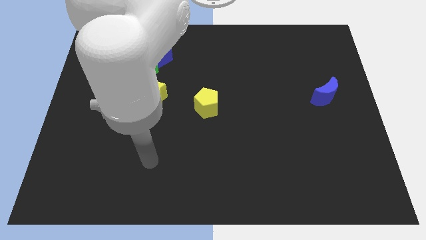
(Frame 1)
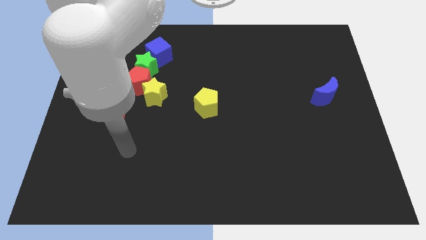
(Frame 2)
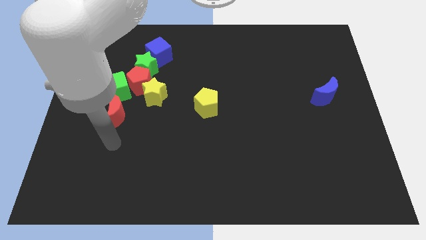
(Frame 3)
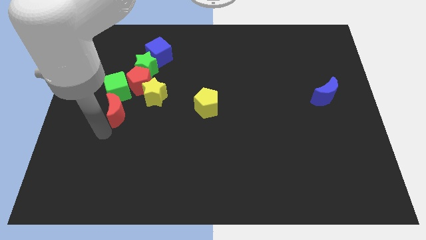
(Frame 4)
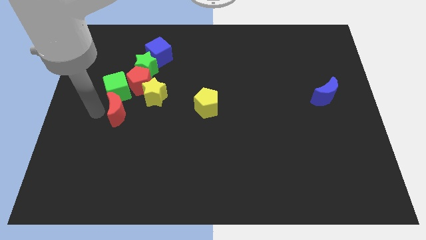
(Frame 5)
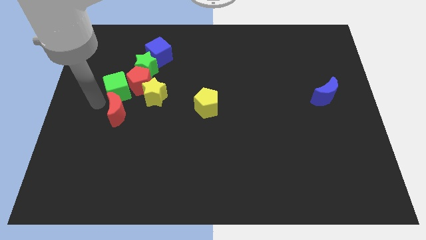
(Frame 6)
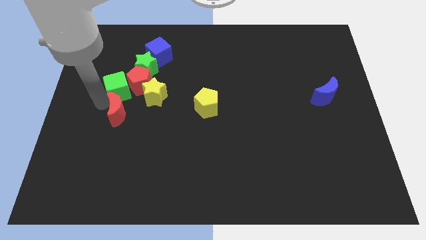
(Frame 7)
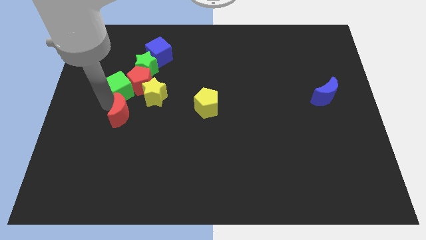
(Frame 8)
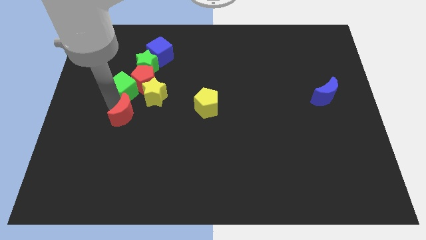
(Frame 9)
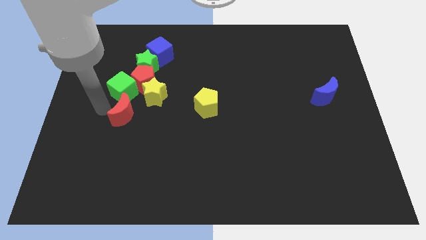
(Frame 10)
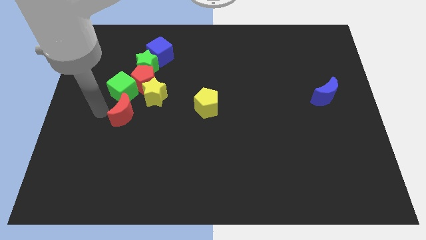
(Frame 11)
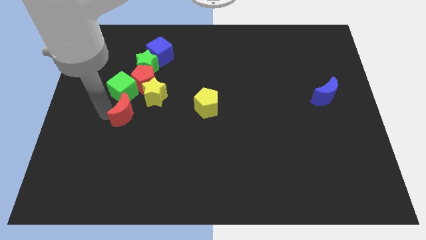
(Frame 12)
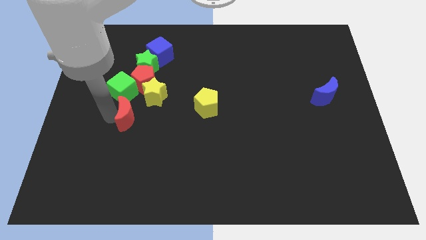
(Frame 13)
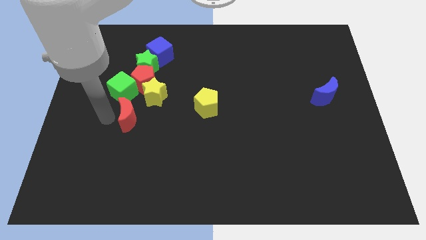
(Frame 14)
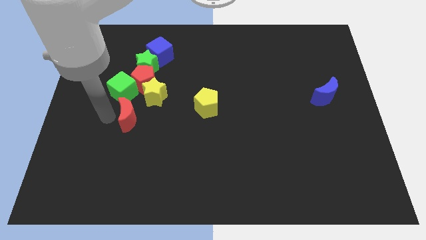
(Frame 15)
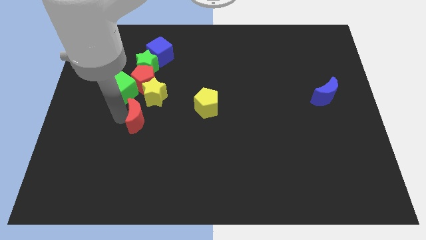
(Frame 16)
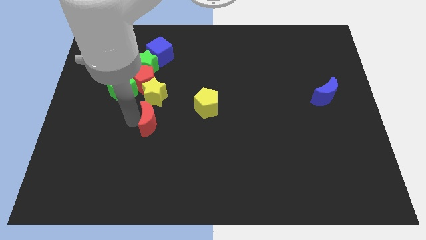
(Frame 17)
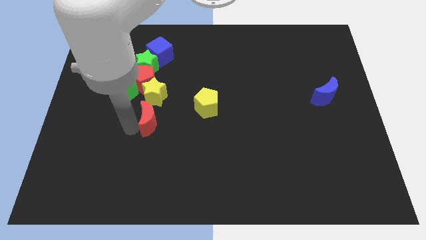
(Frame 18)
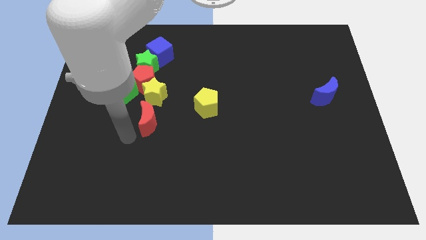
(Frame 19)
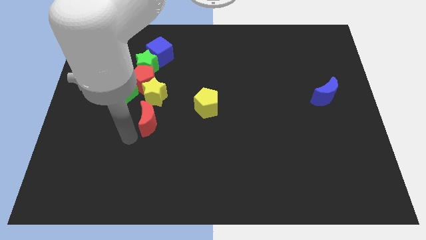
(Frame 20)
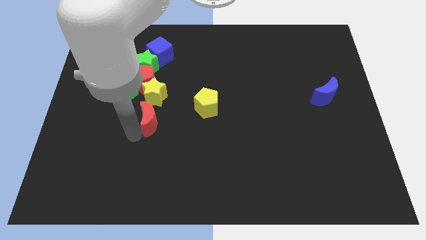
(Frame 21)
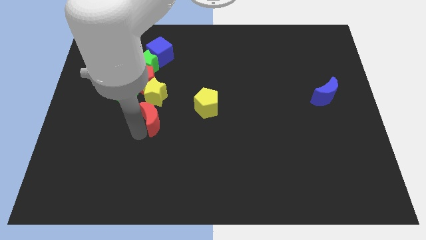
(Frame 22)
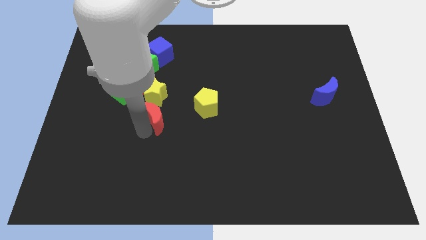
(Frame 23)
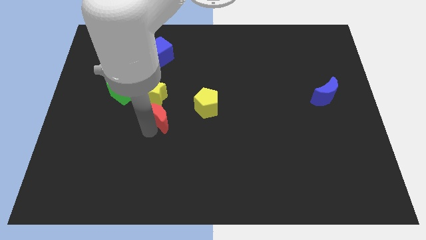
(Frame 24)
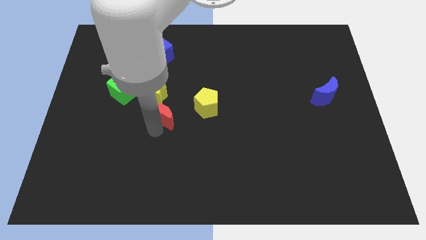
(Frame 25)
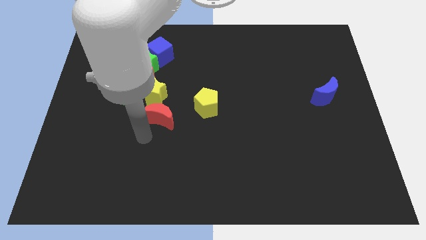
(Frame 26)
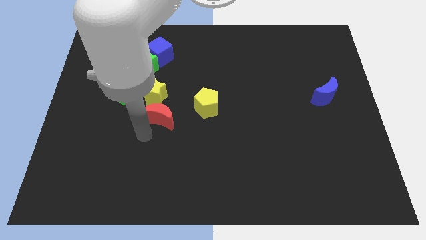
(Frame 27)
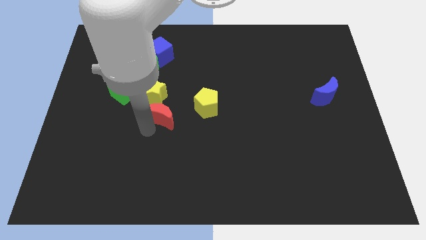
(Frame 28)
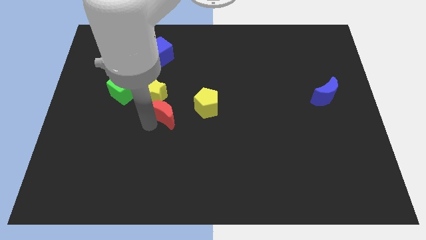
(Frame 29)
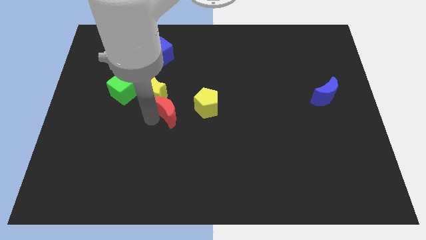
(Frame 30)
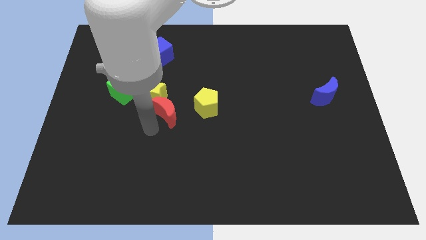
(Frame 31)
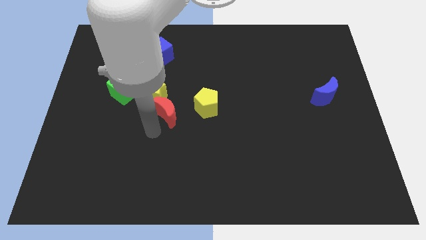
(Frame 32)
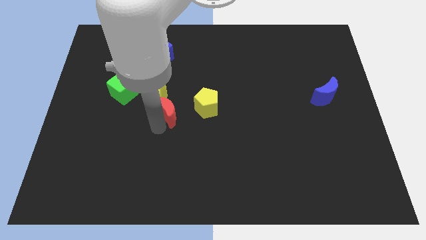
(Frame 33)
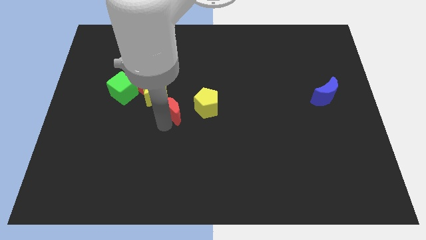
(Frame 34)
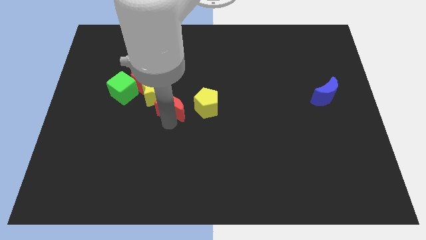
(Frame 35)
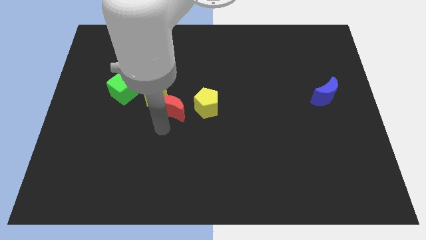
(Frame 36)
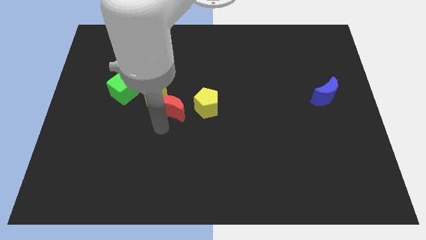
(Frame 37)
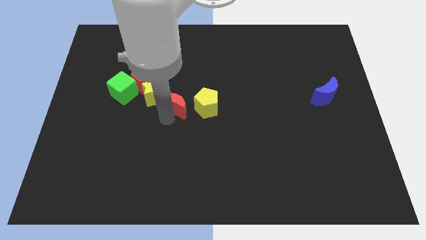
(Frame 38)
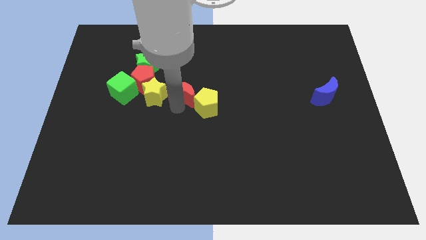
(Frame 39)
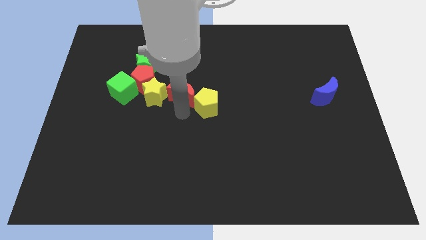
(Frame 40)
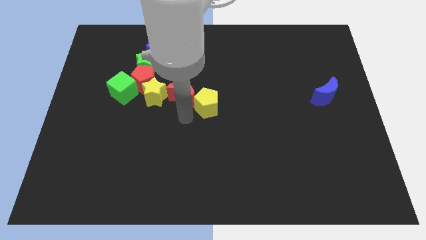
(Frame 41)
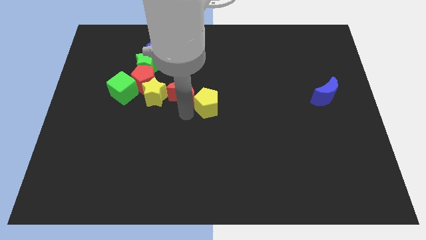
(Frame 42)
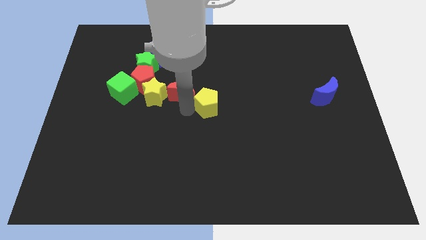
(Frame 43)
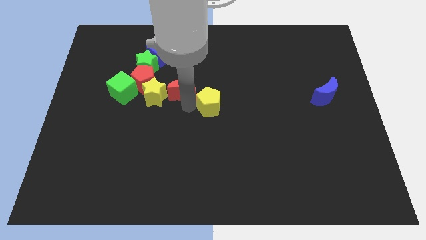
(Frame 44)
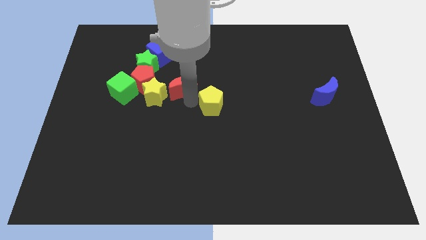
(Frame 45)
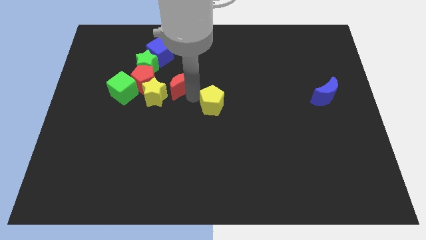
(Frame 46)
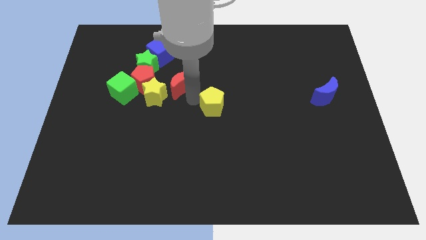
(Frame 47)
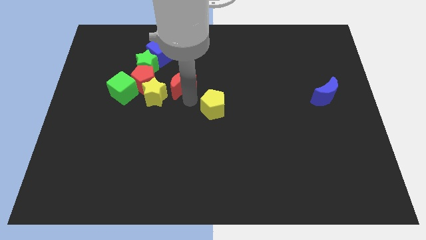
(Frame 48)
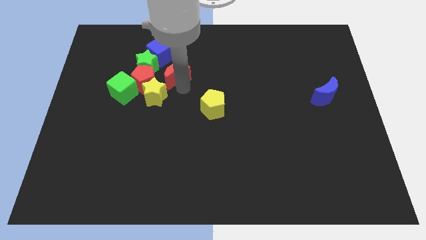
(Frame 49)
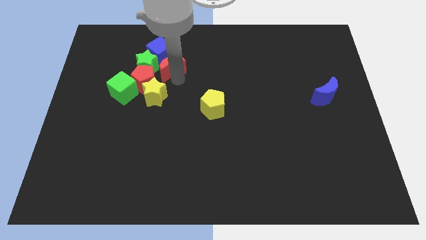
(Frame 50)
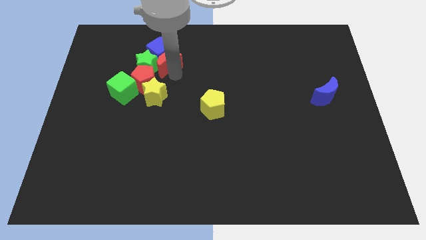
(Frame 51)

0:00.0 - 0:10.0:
move the red moon towards the blue cube

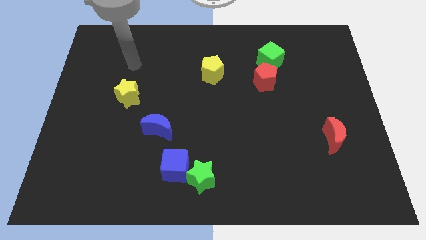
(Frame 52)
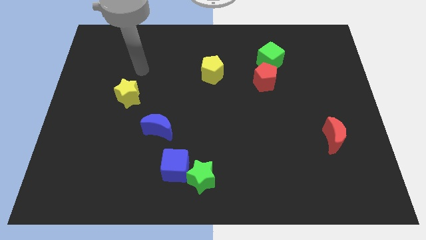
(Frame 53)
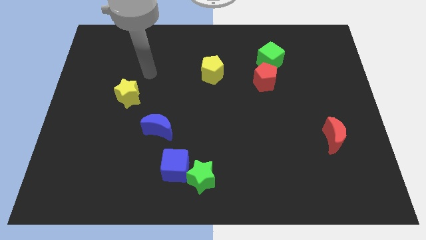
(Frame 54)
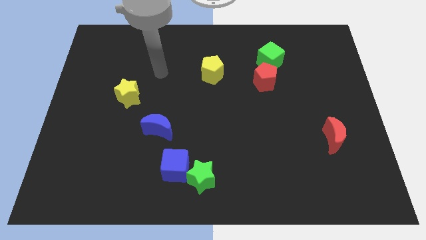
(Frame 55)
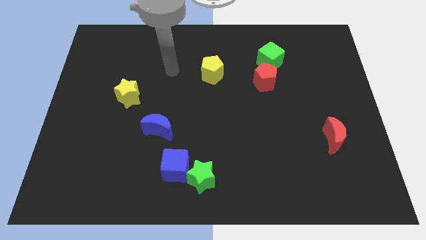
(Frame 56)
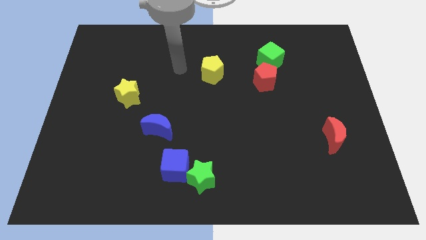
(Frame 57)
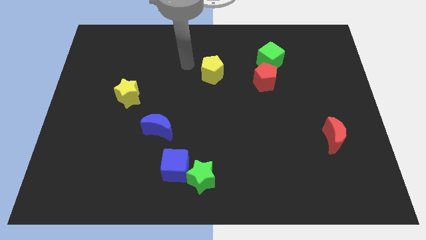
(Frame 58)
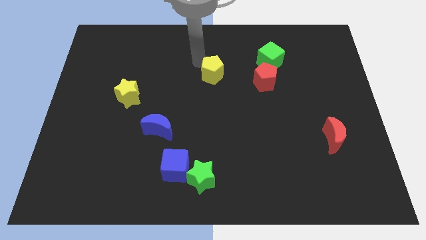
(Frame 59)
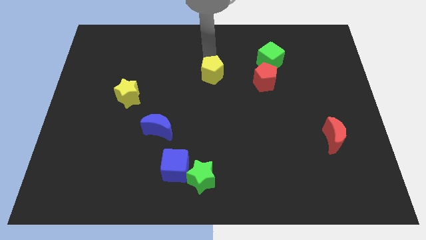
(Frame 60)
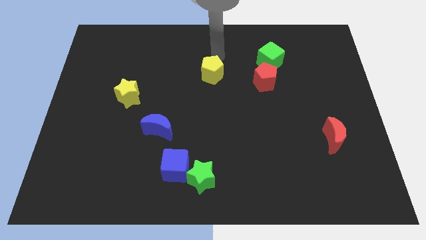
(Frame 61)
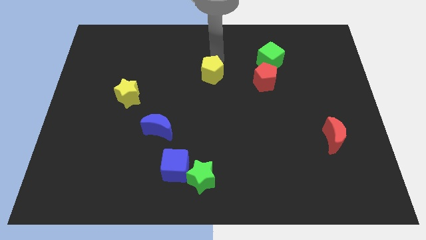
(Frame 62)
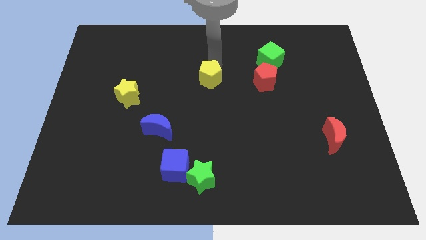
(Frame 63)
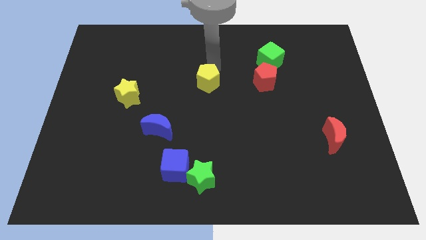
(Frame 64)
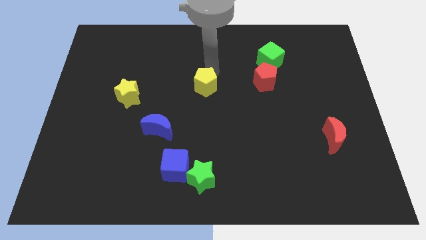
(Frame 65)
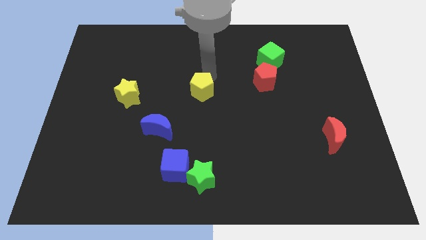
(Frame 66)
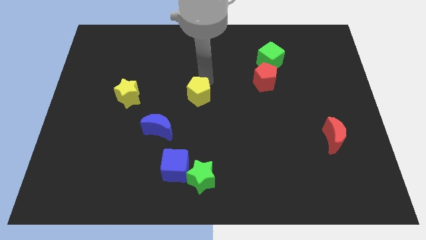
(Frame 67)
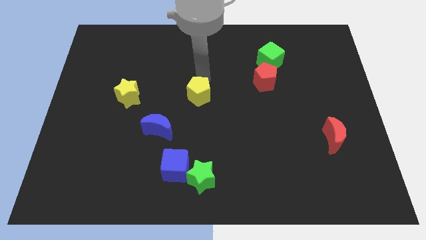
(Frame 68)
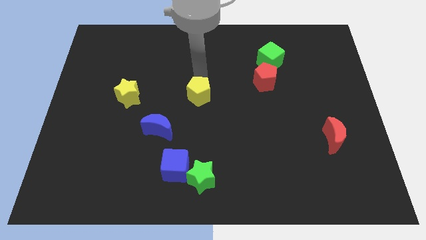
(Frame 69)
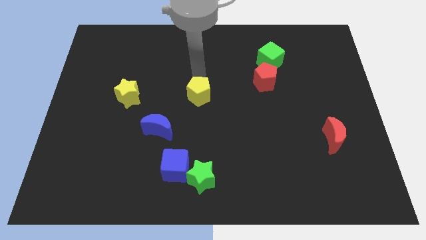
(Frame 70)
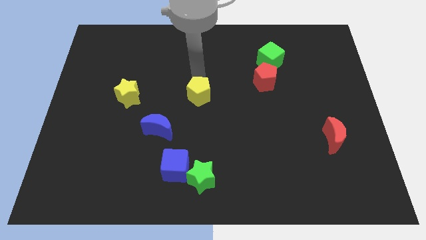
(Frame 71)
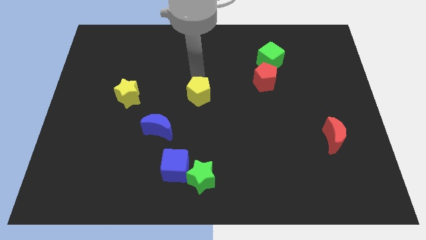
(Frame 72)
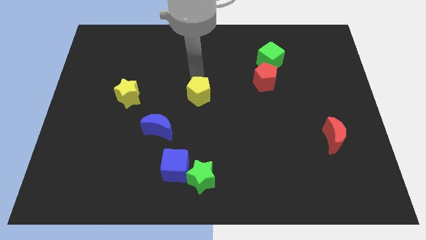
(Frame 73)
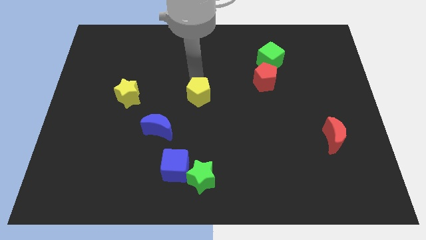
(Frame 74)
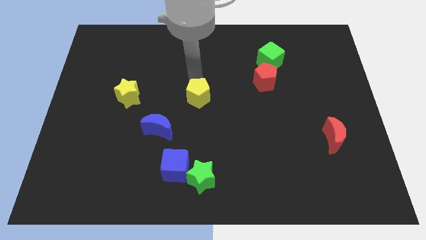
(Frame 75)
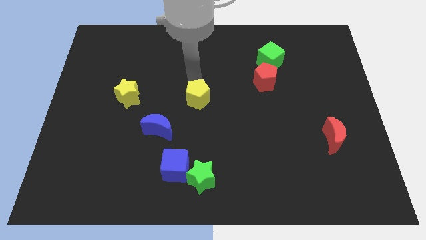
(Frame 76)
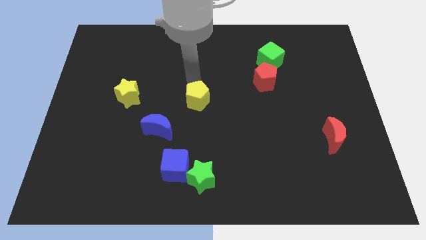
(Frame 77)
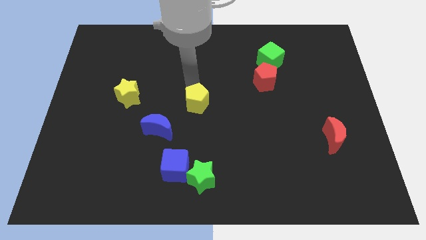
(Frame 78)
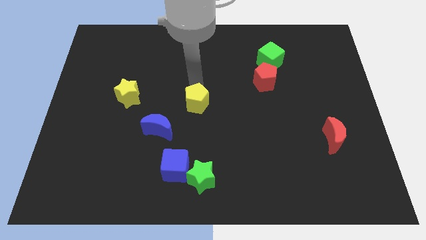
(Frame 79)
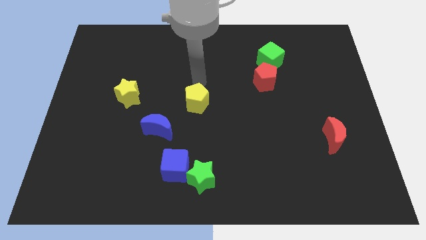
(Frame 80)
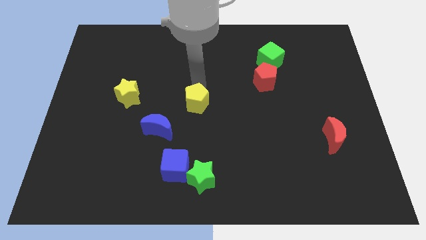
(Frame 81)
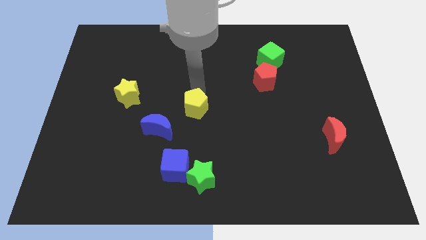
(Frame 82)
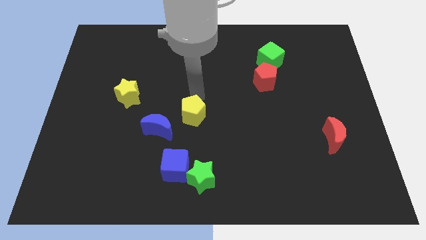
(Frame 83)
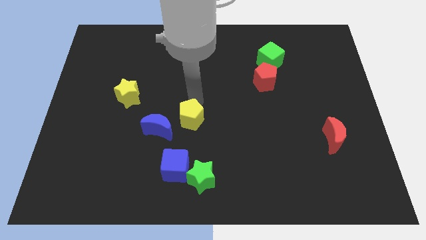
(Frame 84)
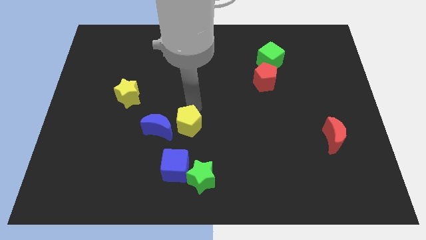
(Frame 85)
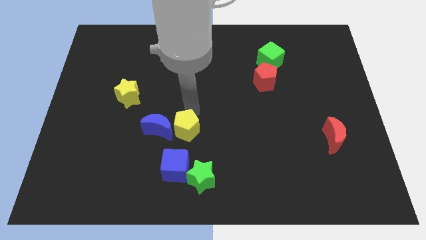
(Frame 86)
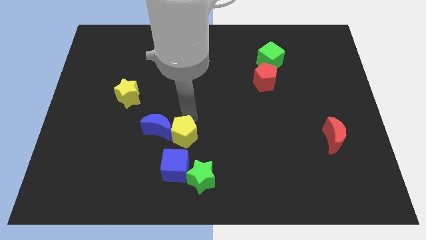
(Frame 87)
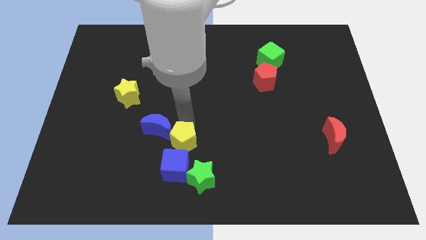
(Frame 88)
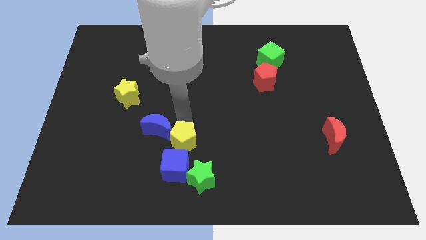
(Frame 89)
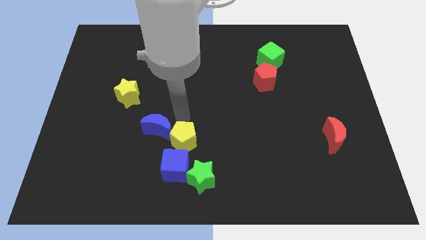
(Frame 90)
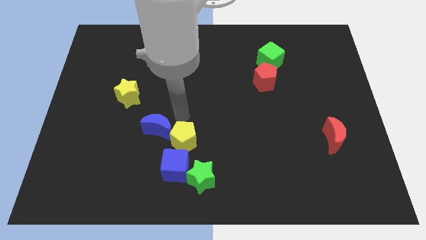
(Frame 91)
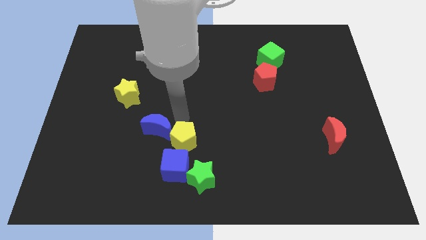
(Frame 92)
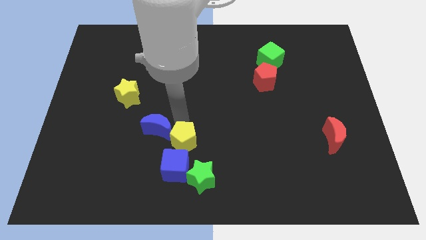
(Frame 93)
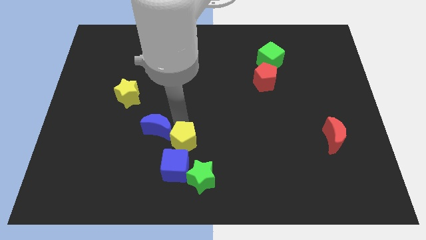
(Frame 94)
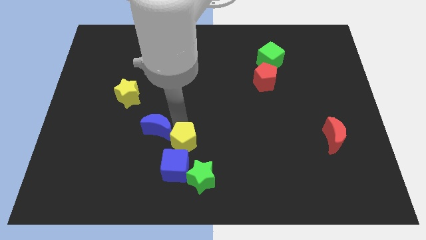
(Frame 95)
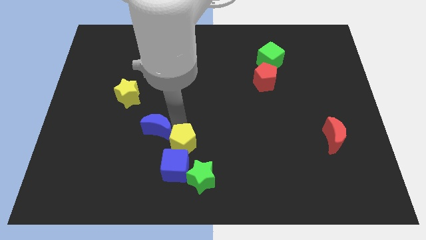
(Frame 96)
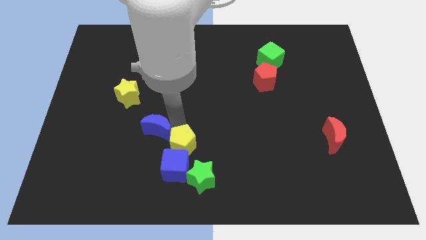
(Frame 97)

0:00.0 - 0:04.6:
slide the yellow pentagon towards the blue cube
